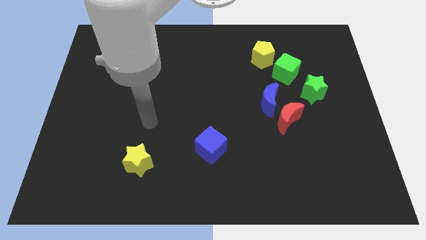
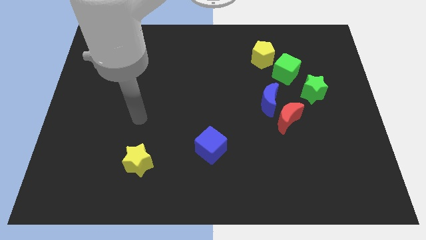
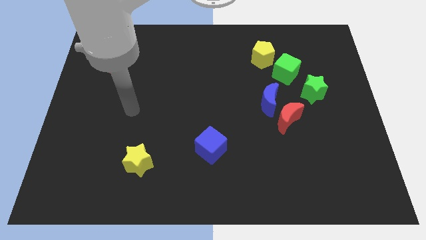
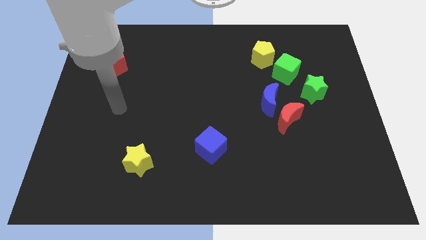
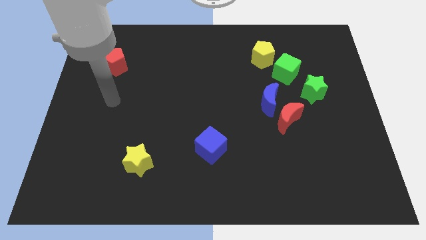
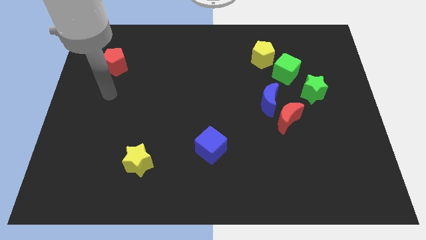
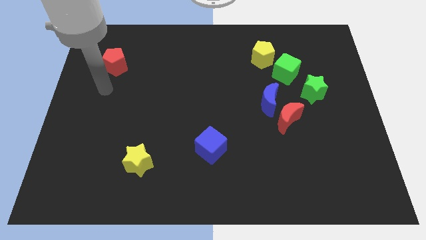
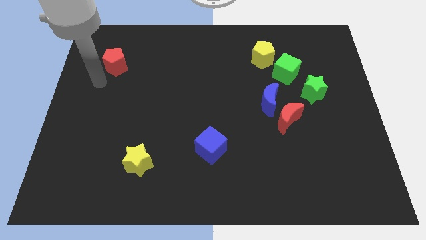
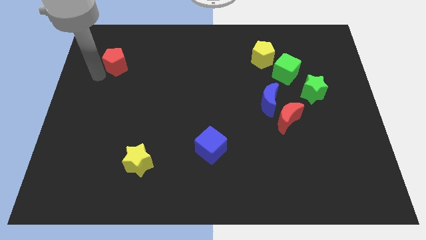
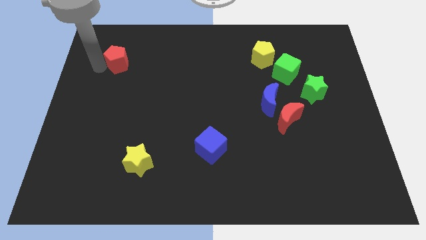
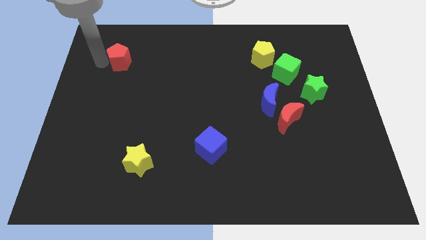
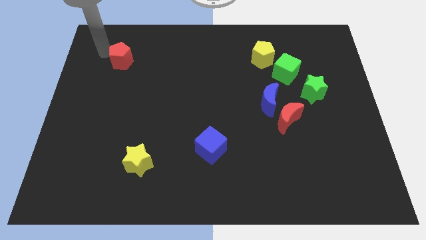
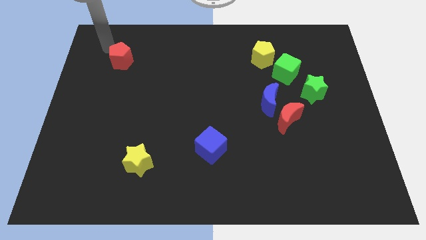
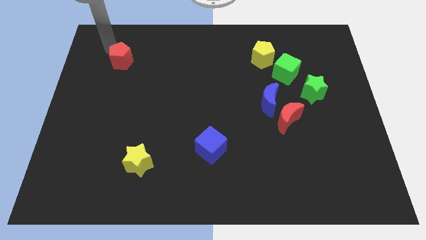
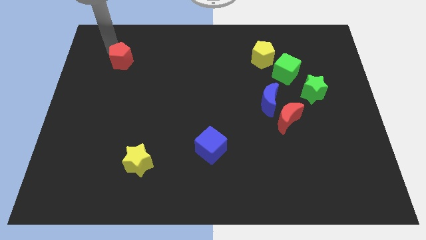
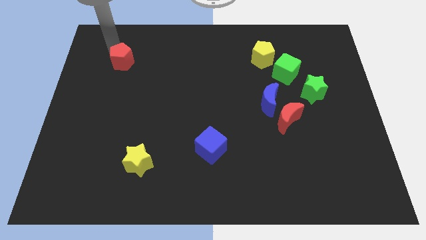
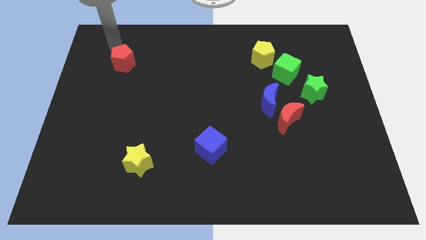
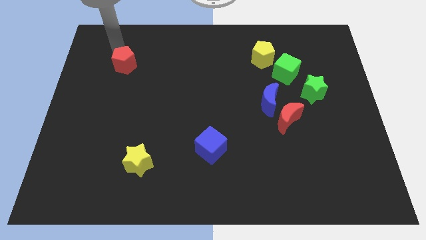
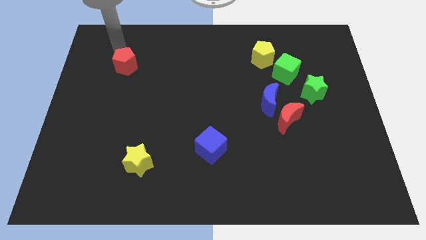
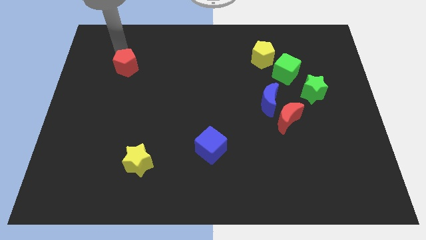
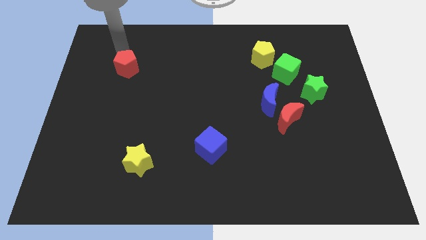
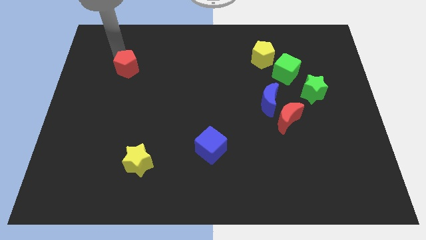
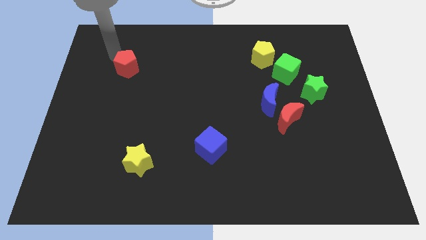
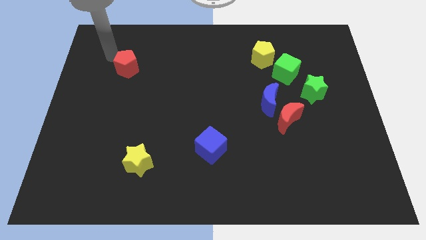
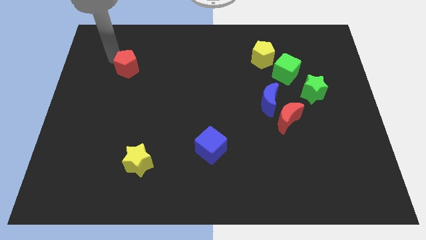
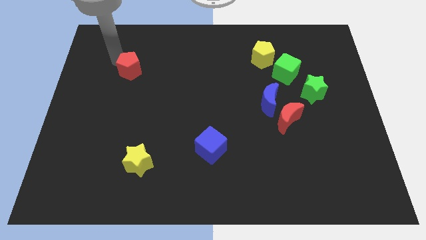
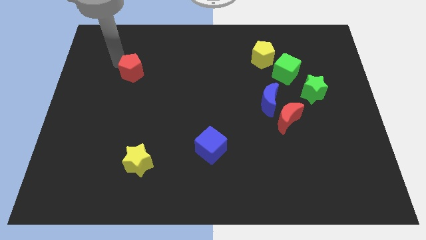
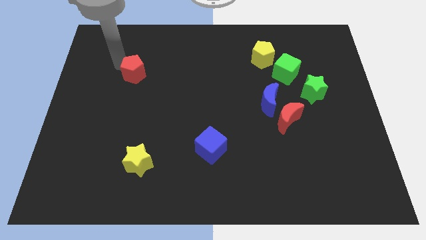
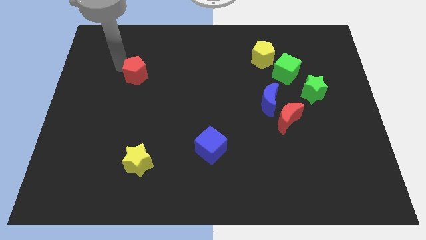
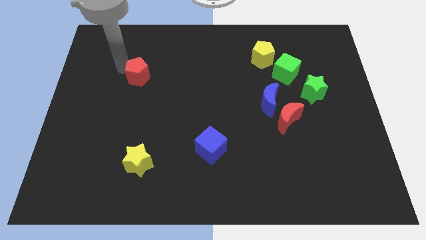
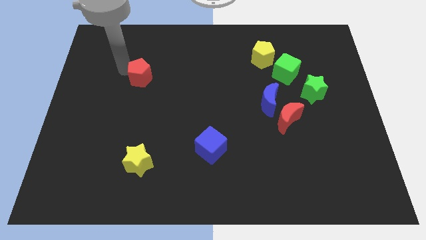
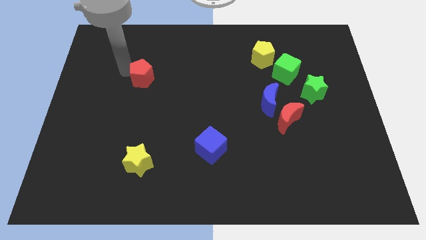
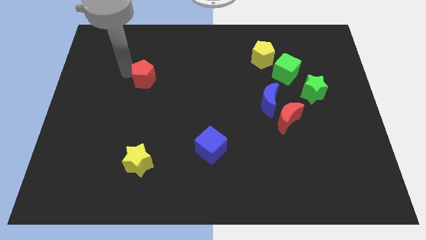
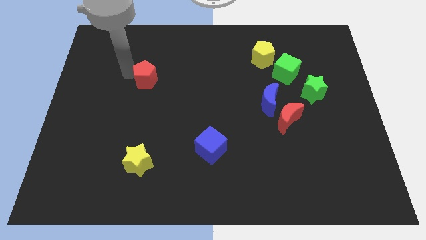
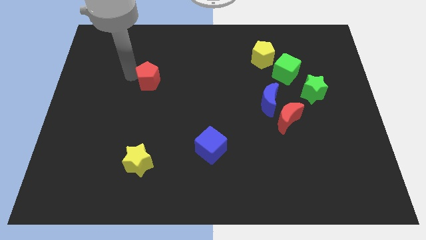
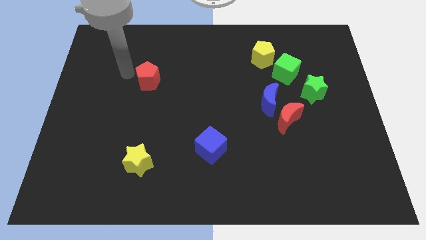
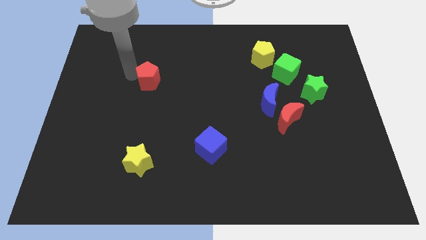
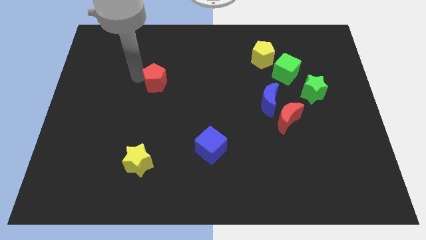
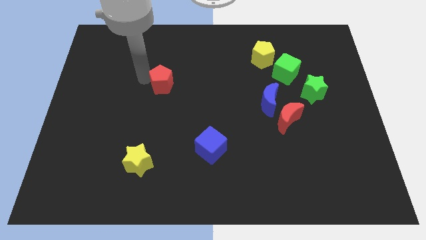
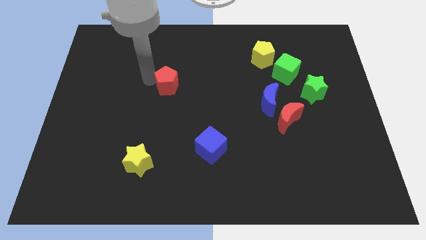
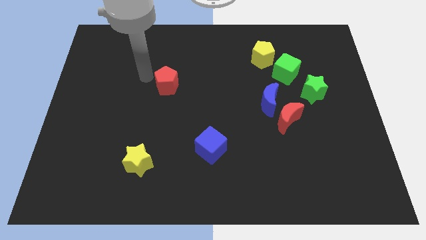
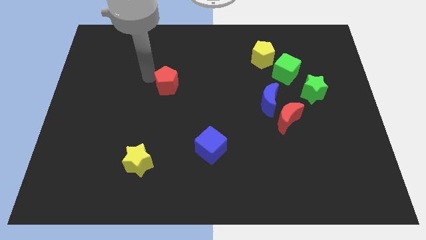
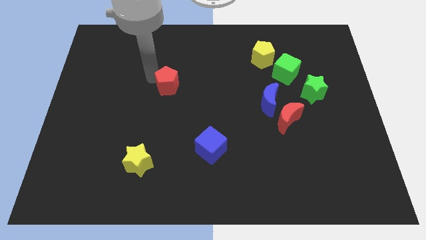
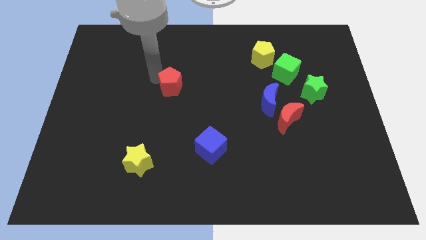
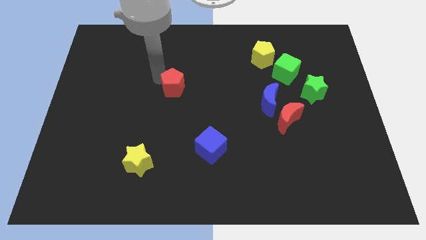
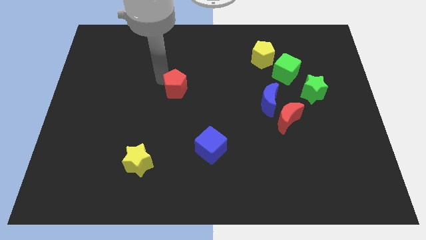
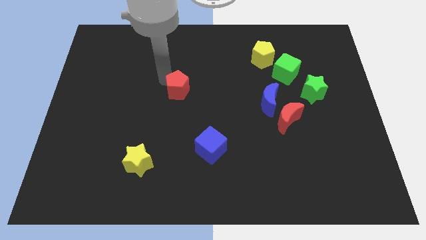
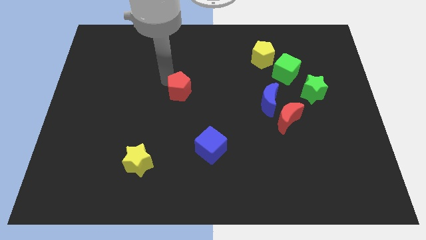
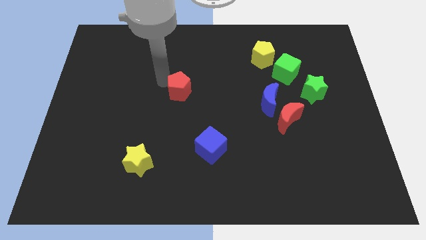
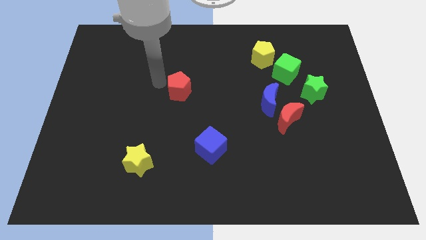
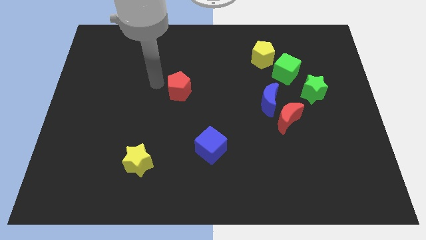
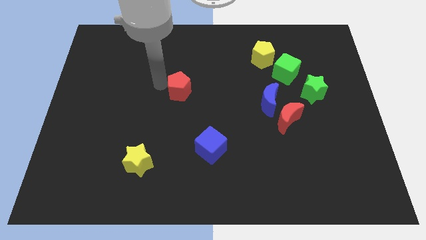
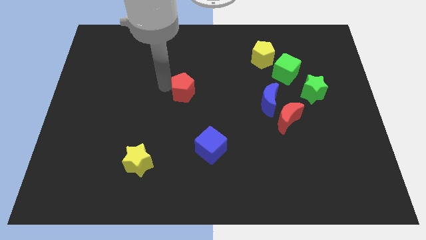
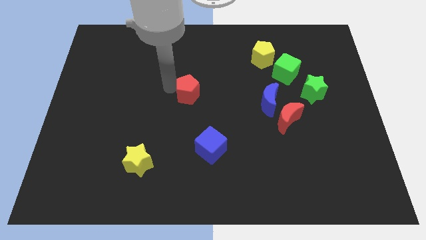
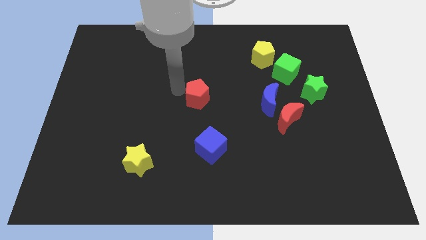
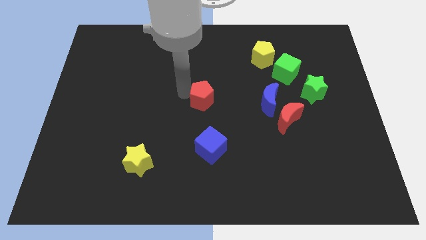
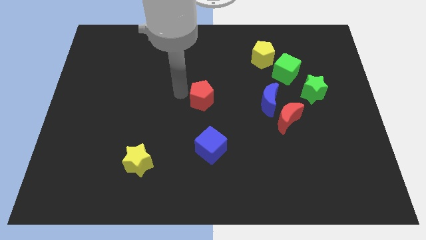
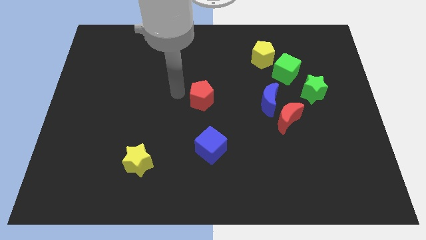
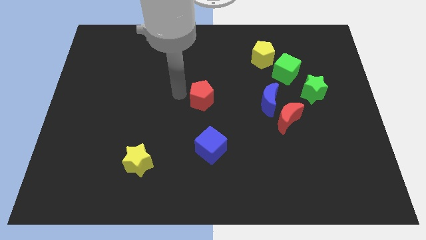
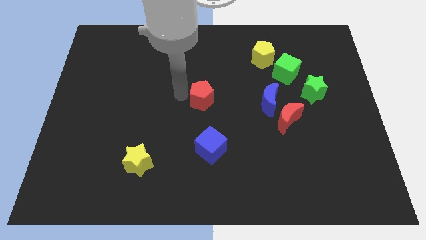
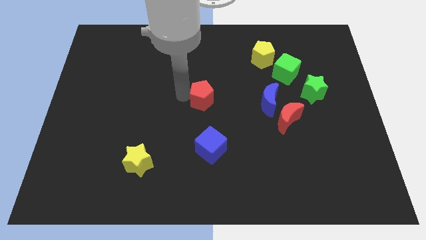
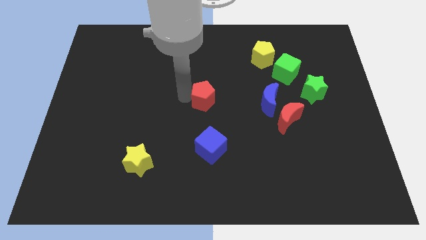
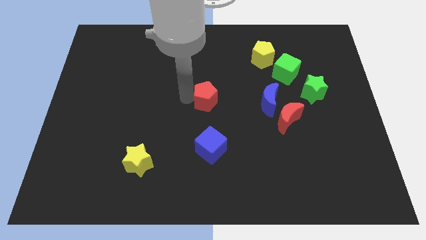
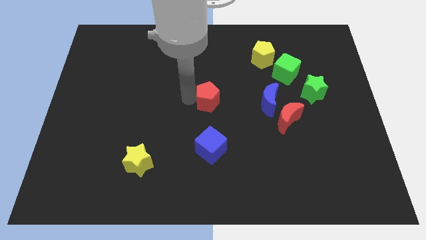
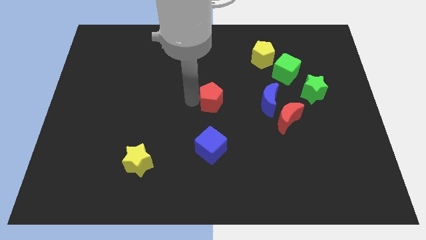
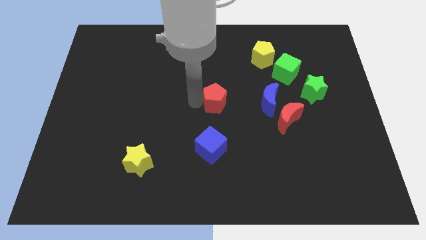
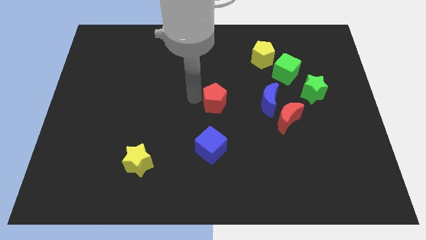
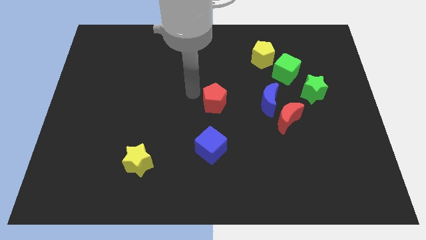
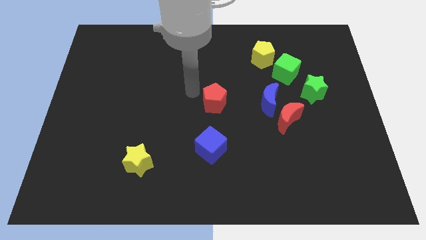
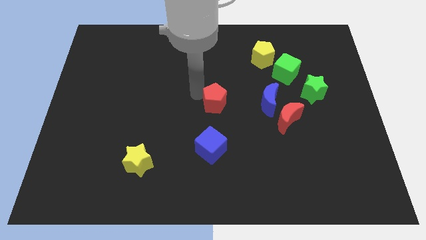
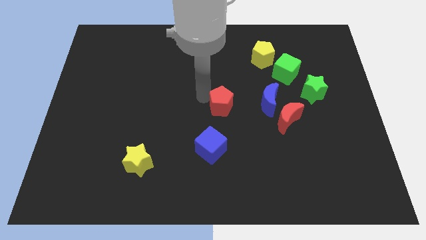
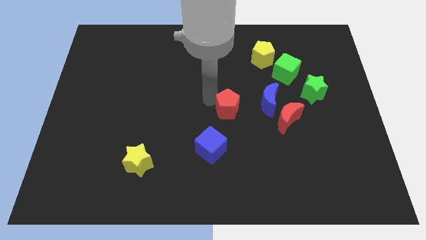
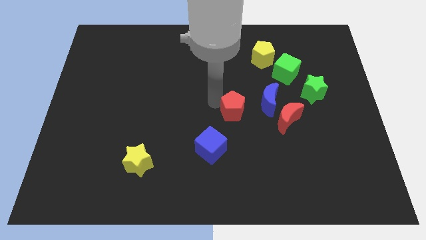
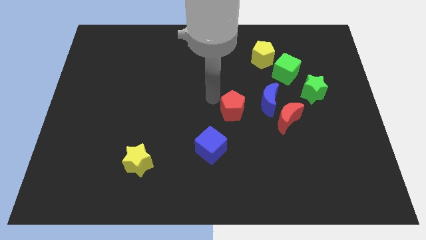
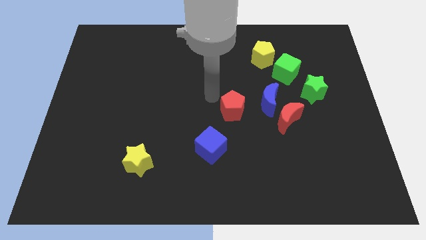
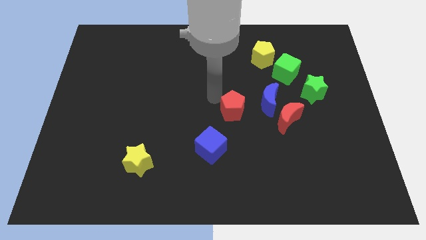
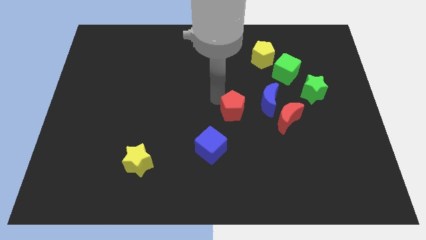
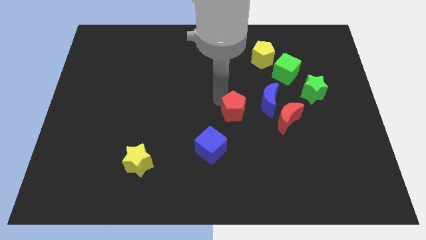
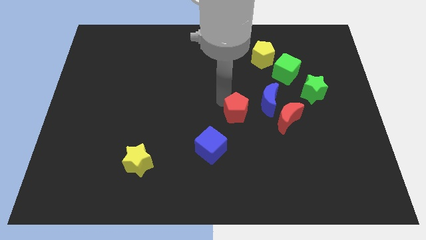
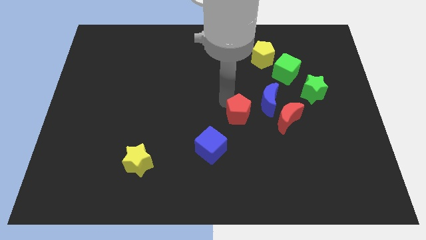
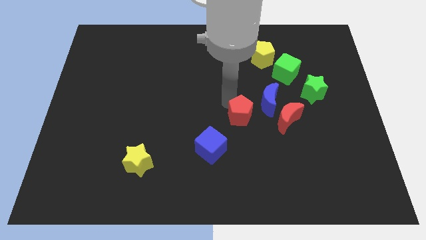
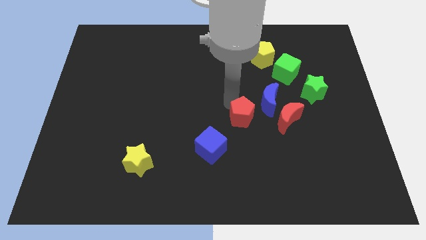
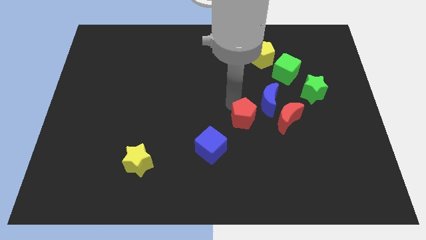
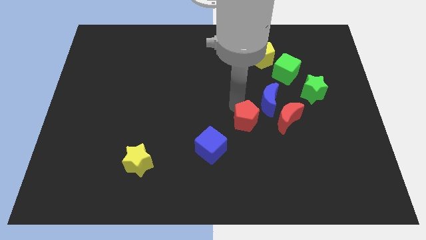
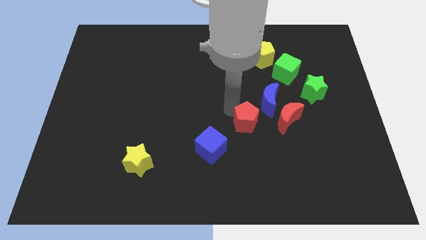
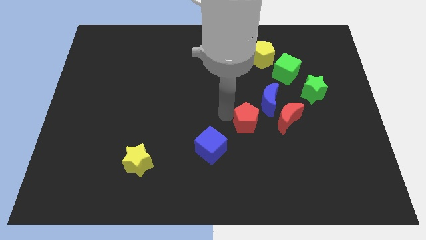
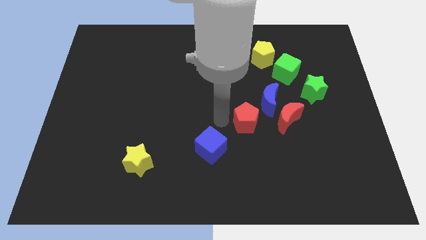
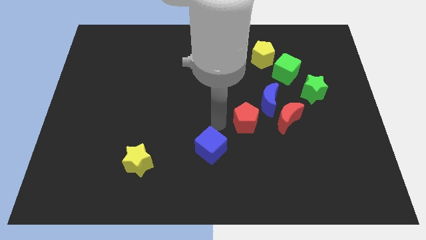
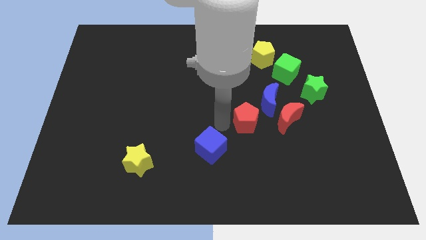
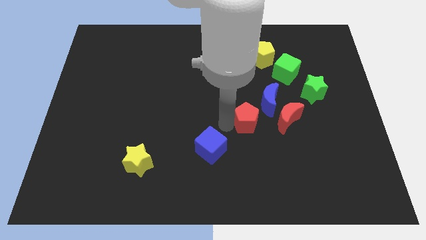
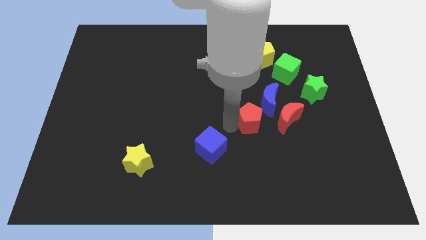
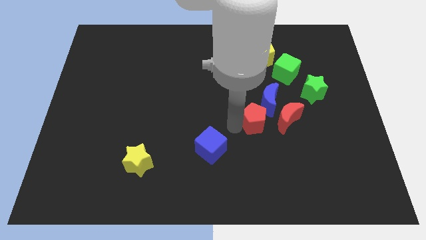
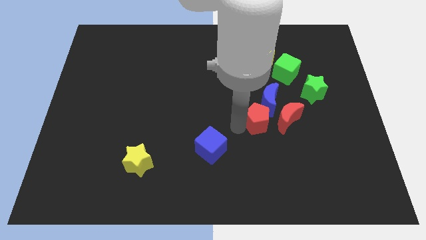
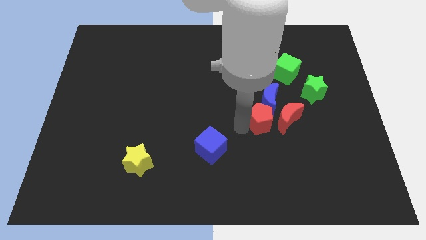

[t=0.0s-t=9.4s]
move the red pentagon towards the red moon
